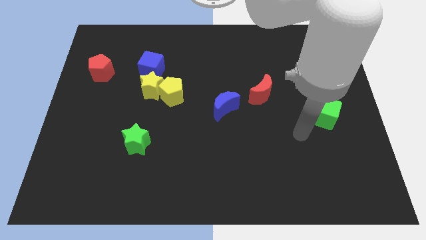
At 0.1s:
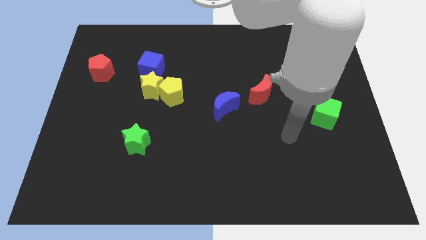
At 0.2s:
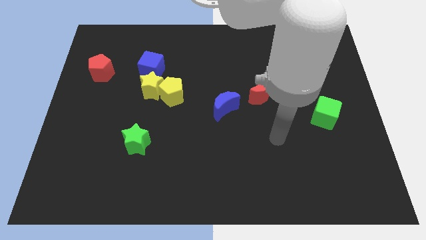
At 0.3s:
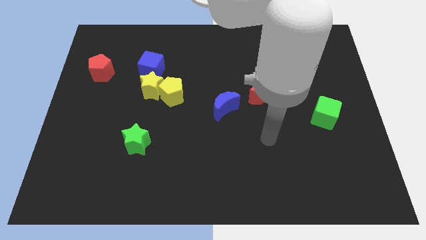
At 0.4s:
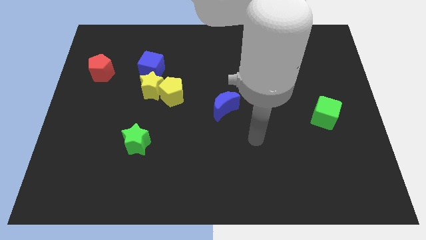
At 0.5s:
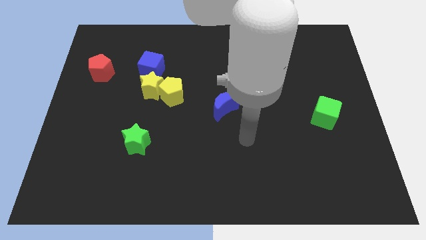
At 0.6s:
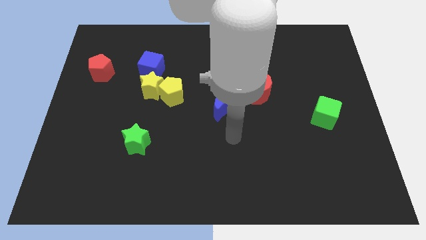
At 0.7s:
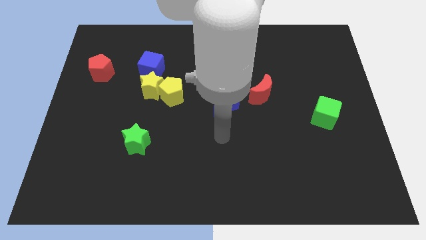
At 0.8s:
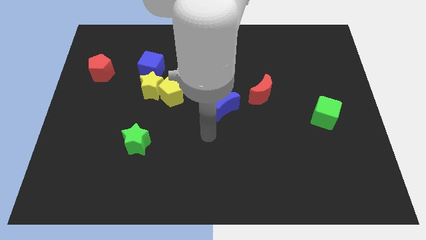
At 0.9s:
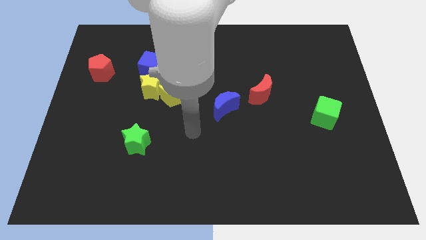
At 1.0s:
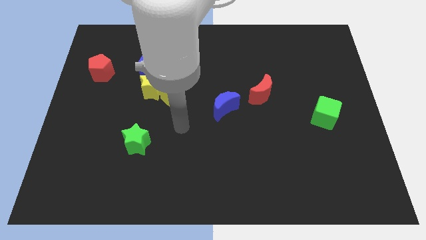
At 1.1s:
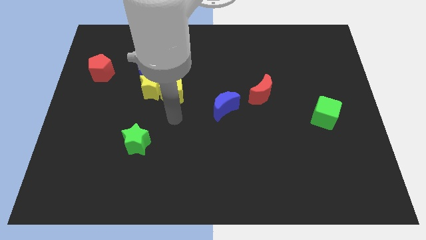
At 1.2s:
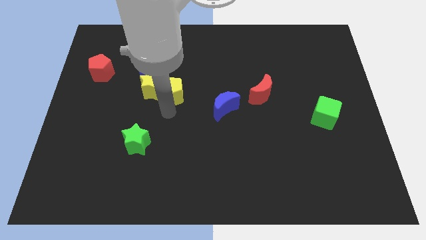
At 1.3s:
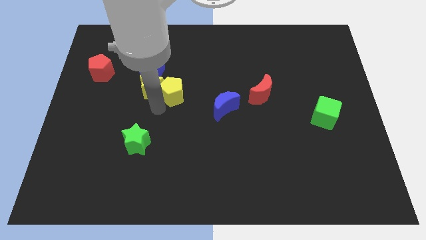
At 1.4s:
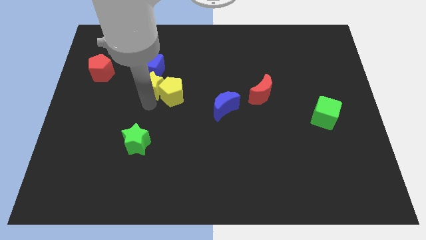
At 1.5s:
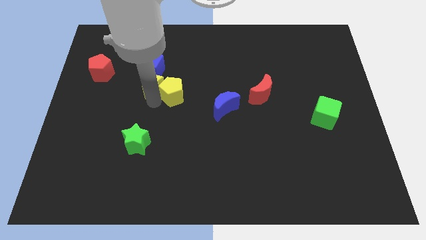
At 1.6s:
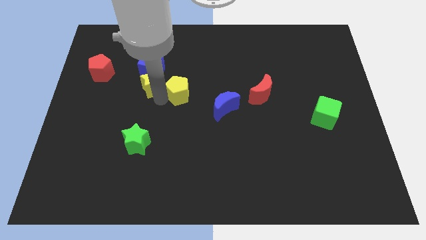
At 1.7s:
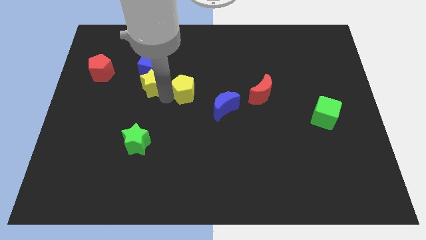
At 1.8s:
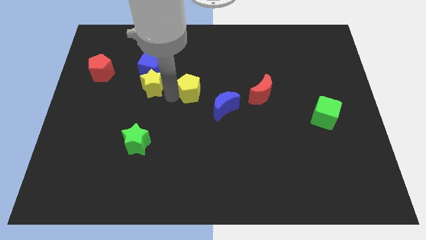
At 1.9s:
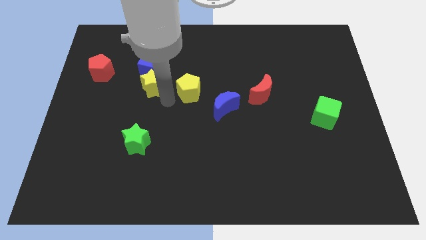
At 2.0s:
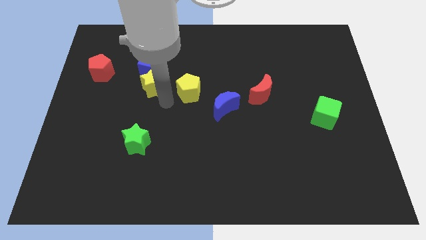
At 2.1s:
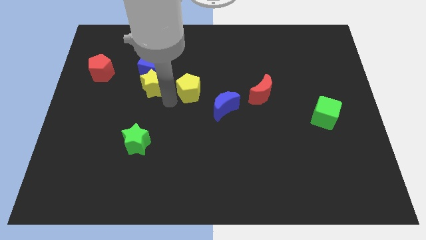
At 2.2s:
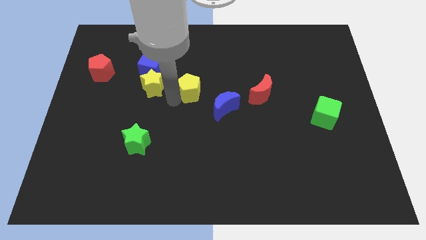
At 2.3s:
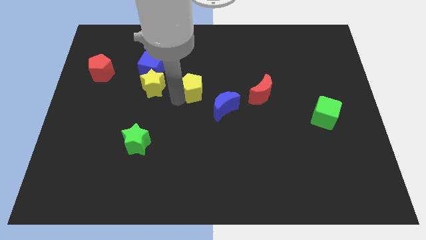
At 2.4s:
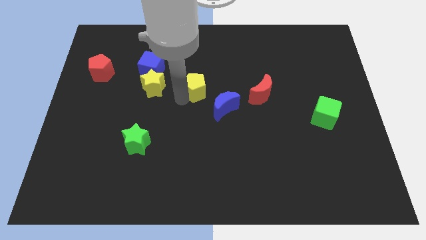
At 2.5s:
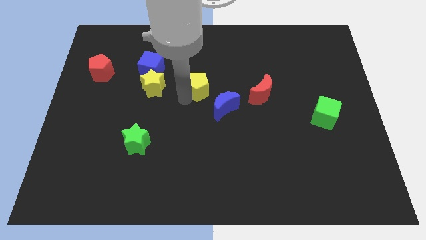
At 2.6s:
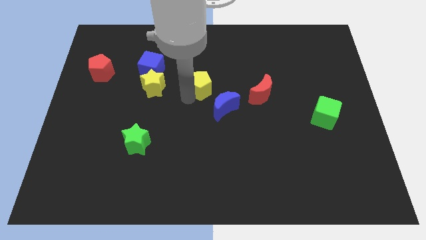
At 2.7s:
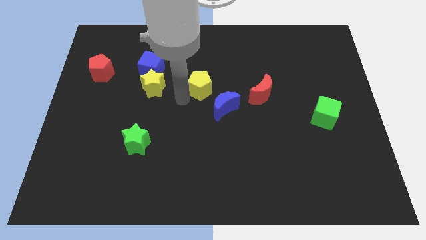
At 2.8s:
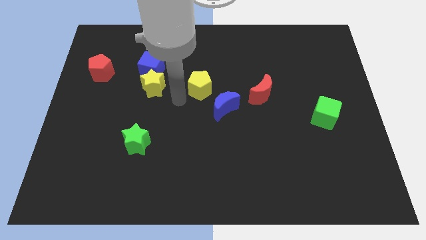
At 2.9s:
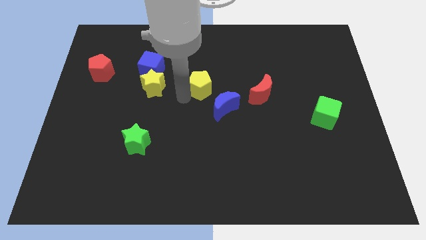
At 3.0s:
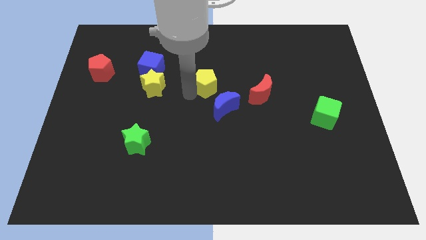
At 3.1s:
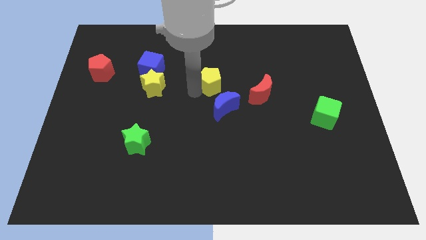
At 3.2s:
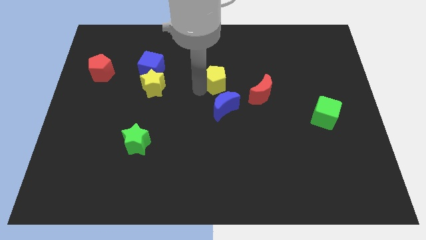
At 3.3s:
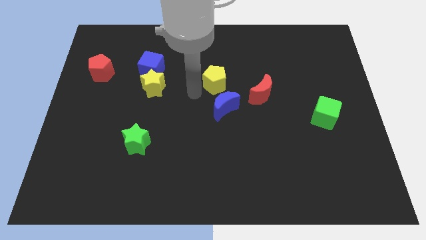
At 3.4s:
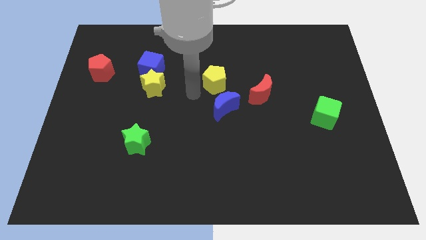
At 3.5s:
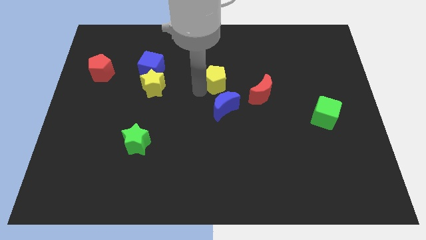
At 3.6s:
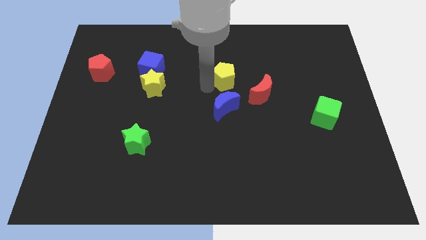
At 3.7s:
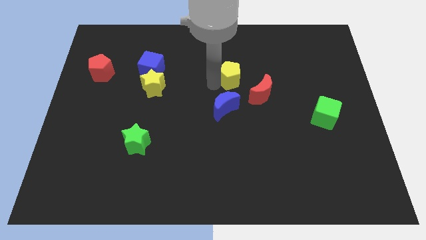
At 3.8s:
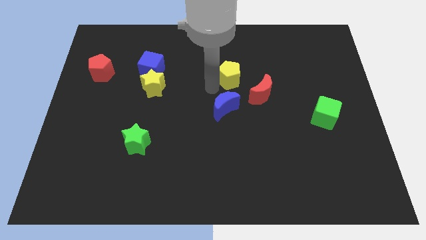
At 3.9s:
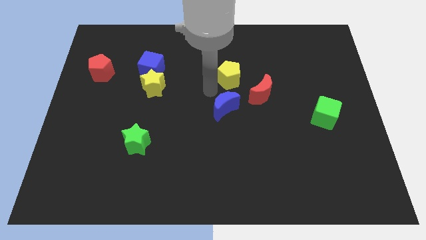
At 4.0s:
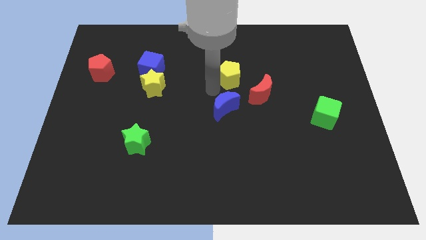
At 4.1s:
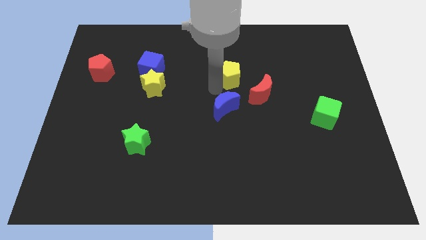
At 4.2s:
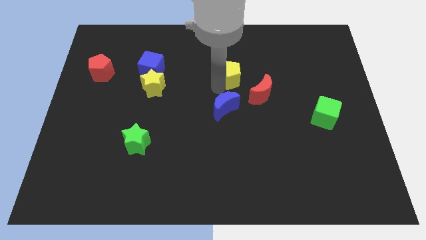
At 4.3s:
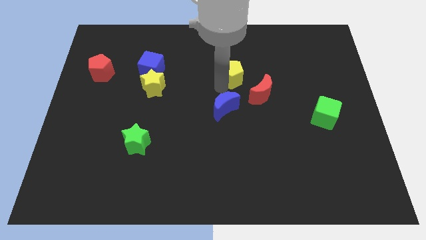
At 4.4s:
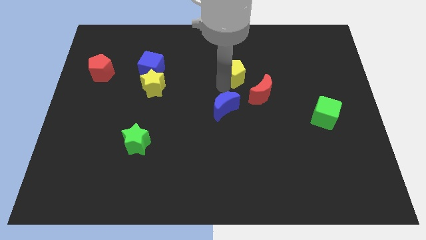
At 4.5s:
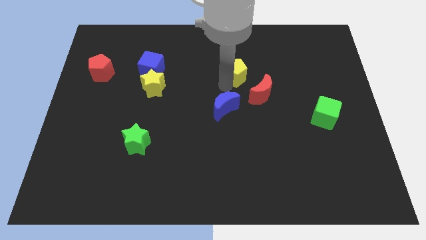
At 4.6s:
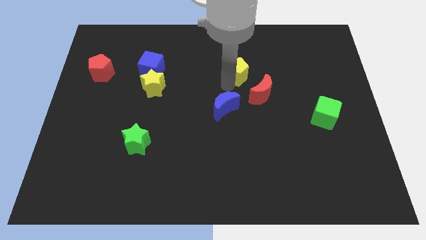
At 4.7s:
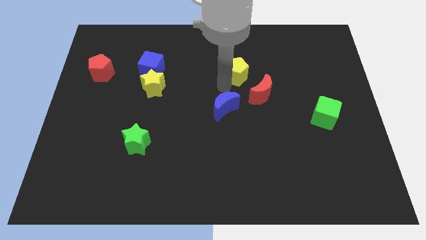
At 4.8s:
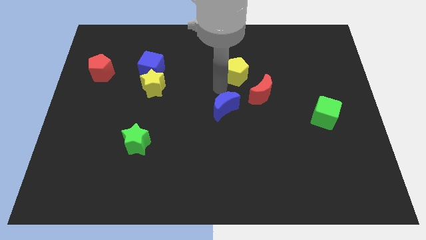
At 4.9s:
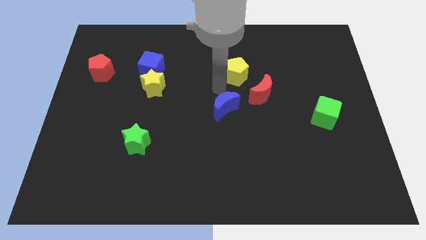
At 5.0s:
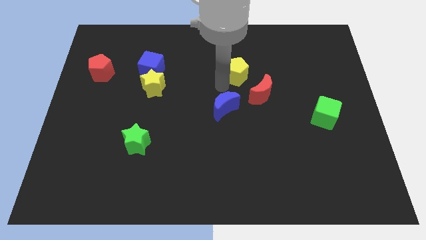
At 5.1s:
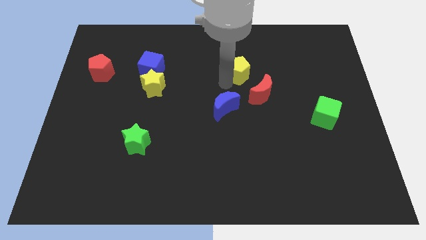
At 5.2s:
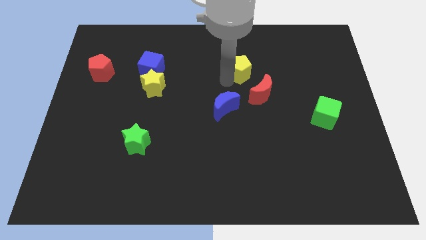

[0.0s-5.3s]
push the yellow pentagon above the red moon

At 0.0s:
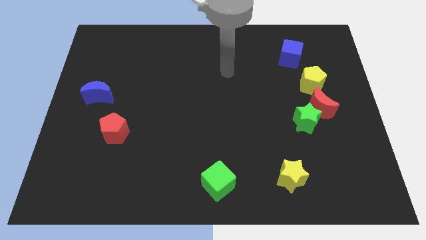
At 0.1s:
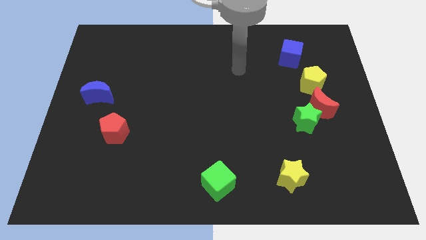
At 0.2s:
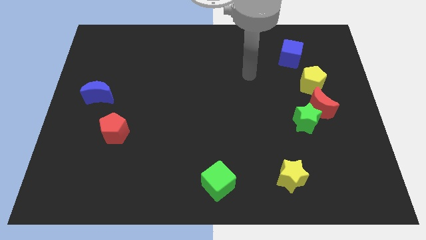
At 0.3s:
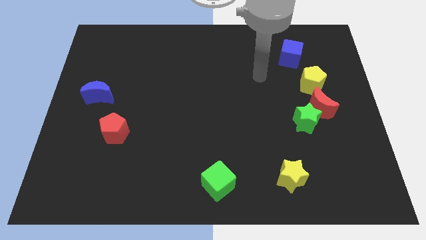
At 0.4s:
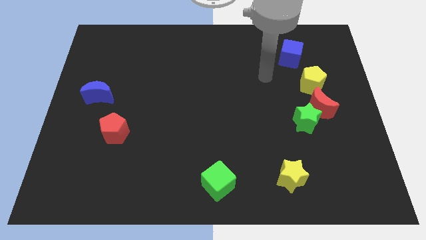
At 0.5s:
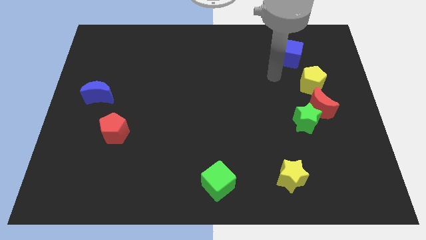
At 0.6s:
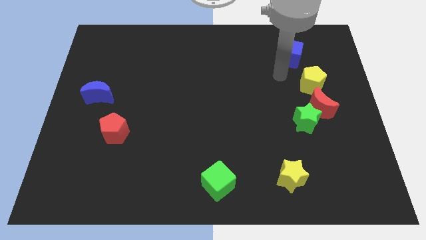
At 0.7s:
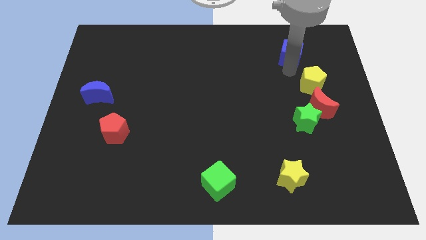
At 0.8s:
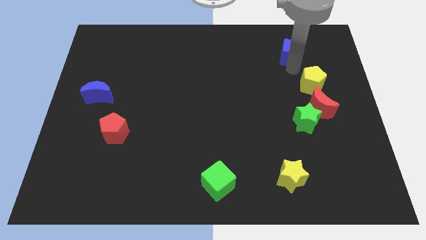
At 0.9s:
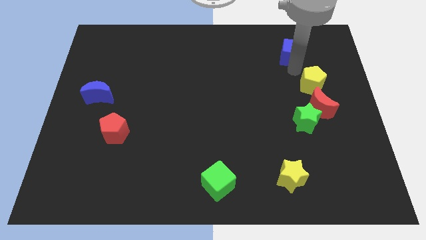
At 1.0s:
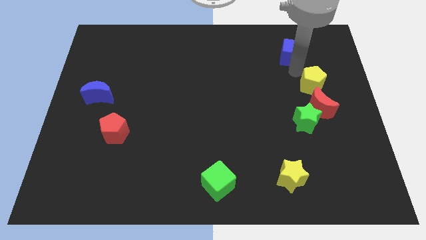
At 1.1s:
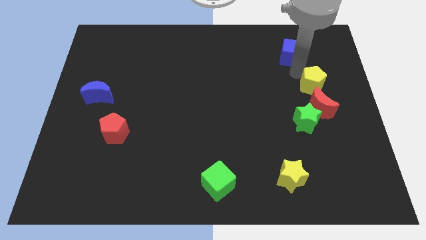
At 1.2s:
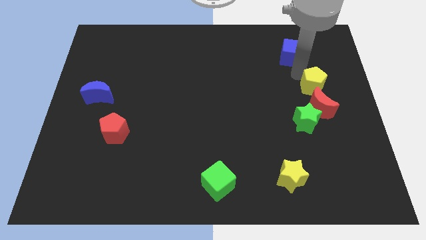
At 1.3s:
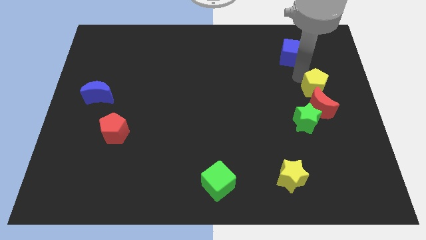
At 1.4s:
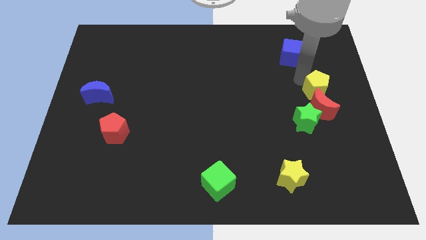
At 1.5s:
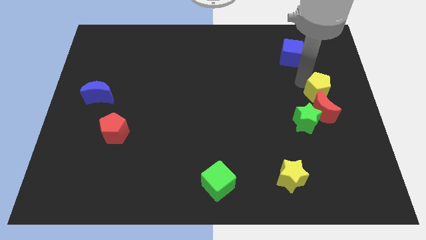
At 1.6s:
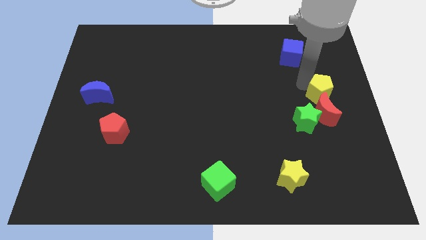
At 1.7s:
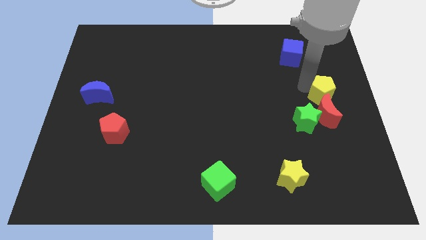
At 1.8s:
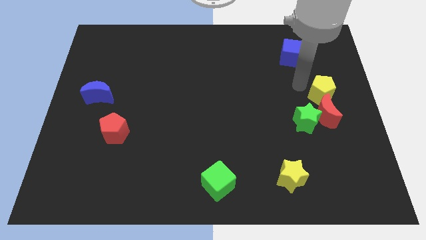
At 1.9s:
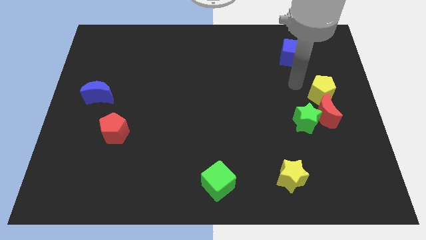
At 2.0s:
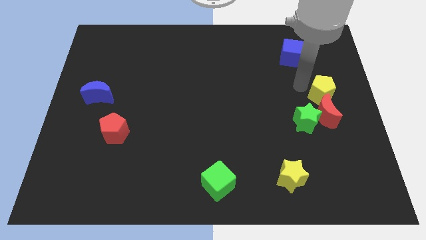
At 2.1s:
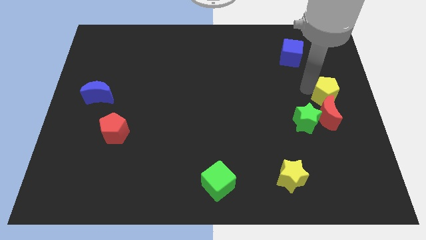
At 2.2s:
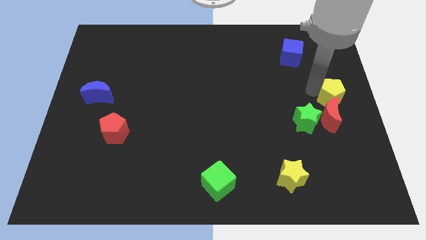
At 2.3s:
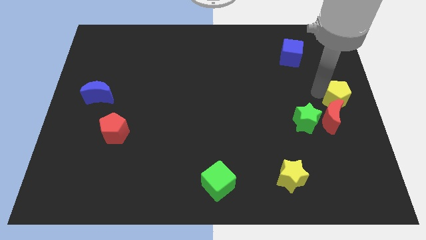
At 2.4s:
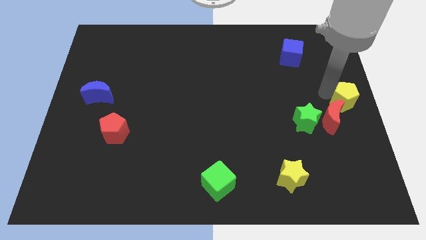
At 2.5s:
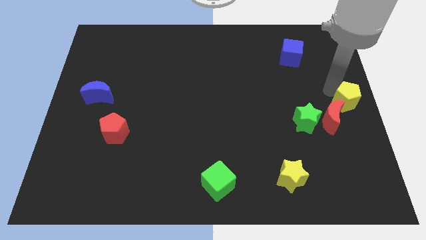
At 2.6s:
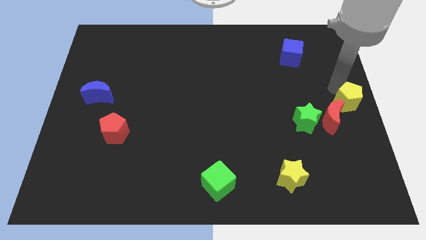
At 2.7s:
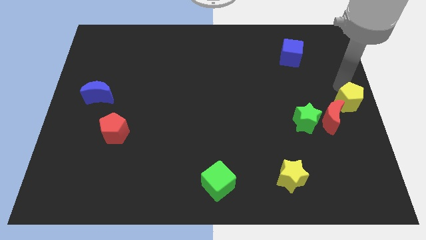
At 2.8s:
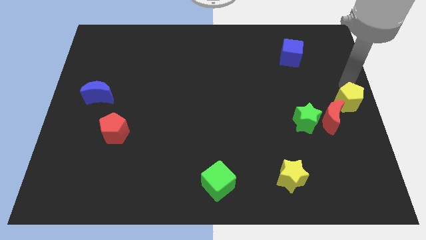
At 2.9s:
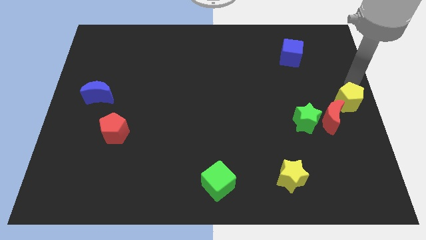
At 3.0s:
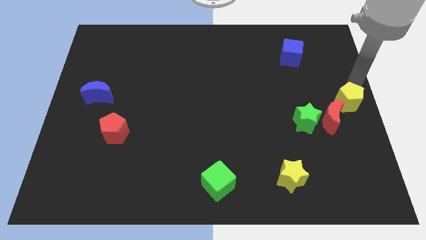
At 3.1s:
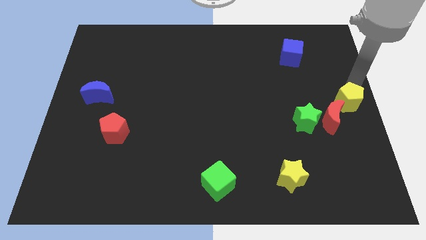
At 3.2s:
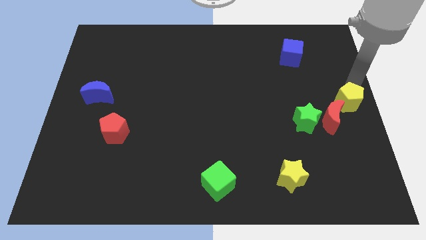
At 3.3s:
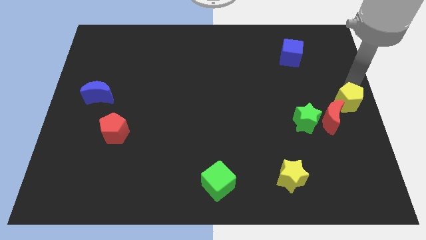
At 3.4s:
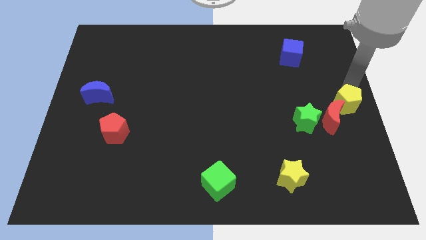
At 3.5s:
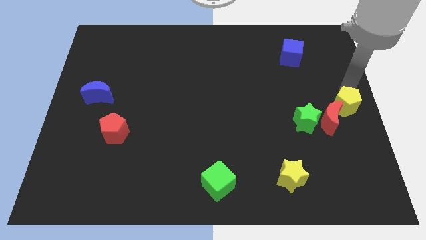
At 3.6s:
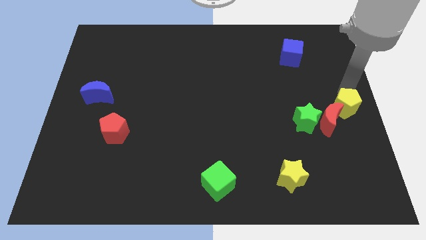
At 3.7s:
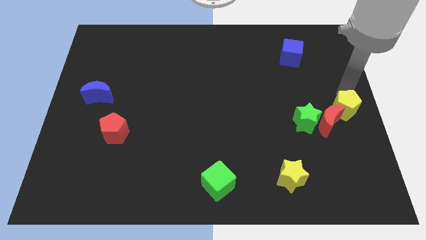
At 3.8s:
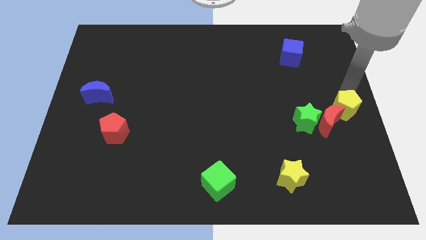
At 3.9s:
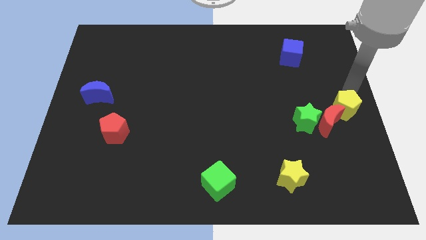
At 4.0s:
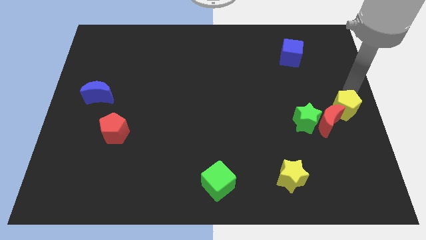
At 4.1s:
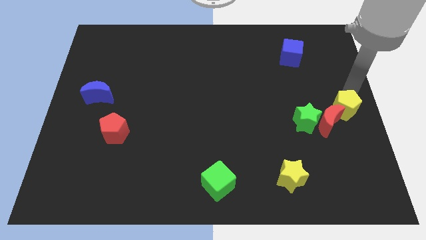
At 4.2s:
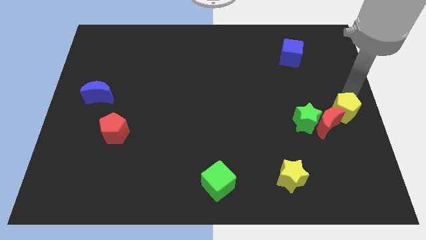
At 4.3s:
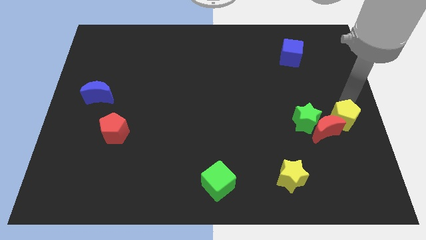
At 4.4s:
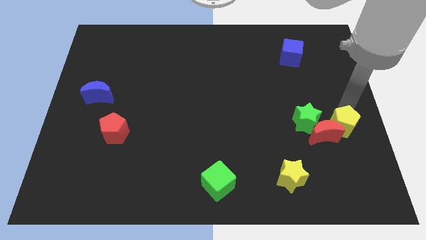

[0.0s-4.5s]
push the yellow pentagon diagonally down and to the right of the green star
